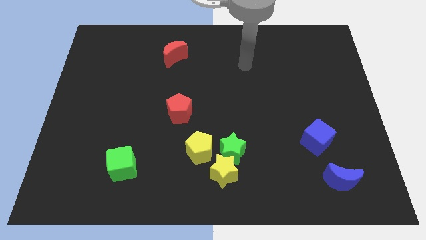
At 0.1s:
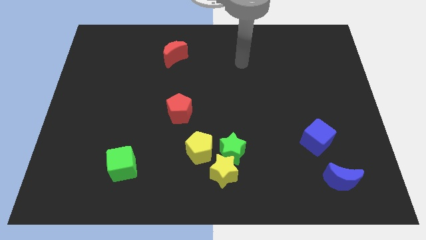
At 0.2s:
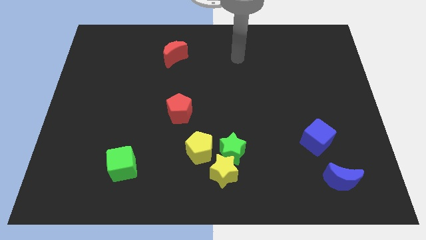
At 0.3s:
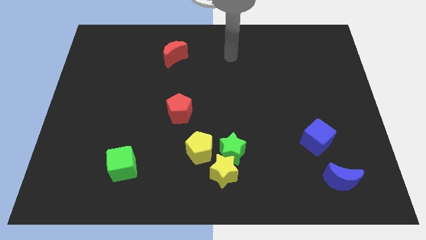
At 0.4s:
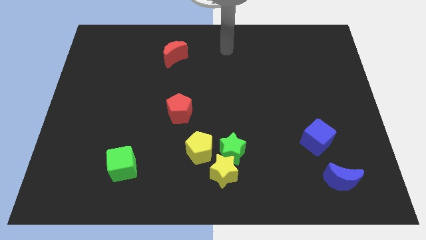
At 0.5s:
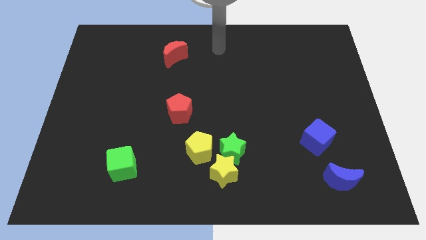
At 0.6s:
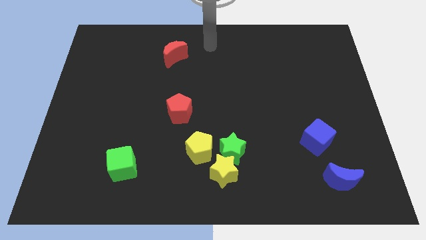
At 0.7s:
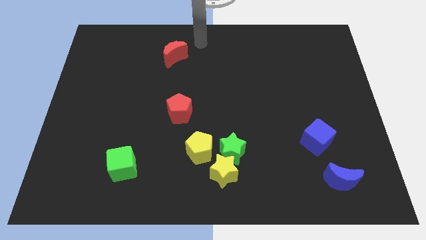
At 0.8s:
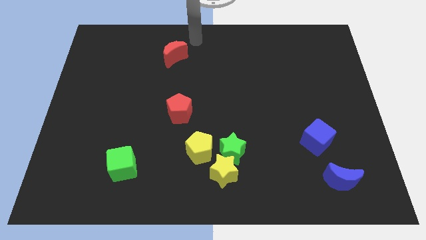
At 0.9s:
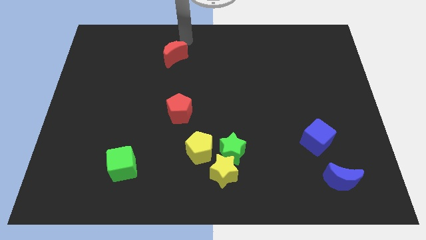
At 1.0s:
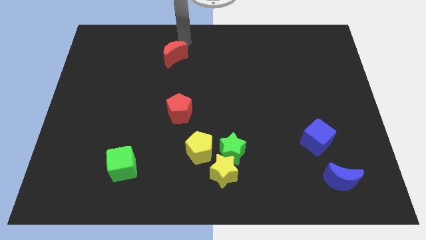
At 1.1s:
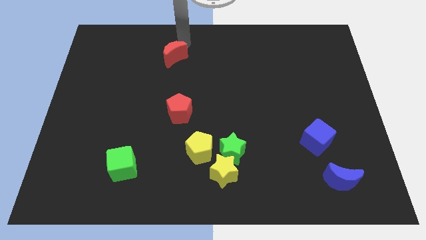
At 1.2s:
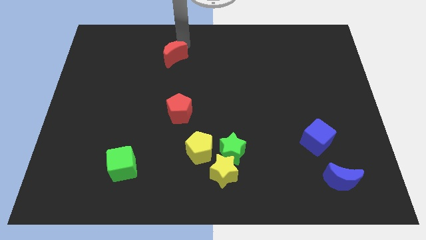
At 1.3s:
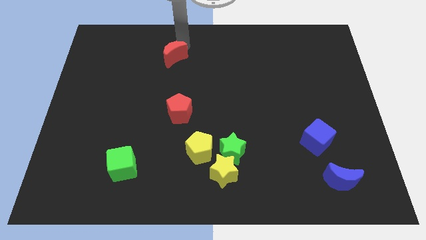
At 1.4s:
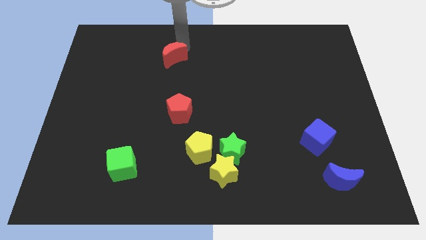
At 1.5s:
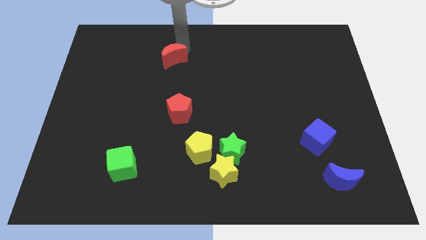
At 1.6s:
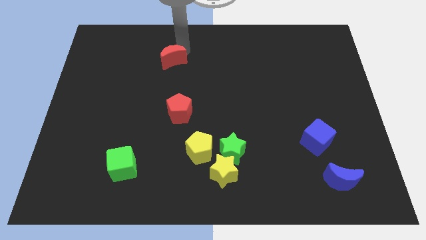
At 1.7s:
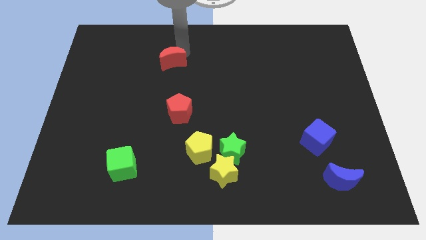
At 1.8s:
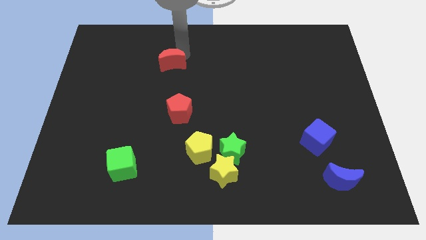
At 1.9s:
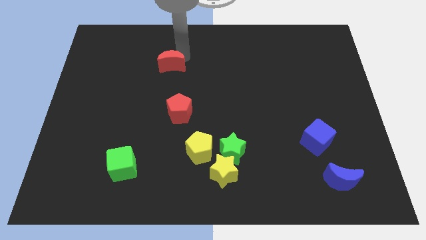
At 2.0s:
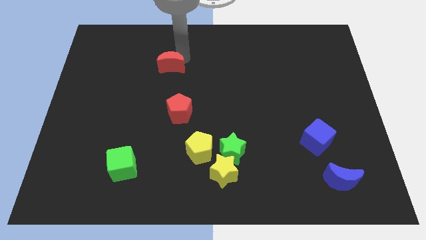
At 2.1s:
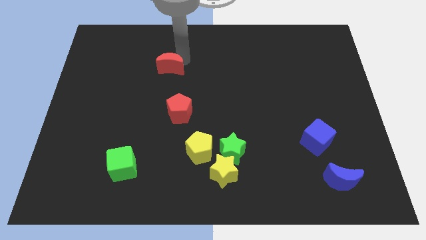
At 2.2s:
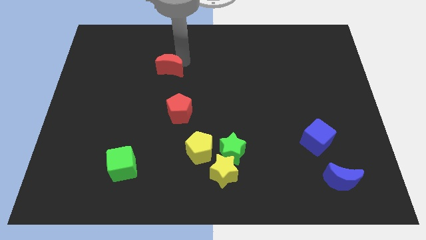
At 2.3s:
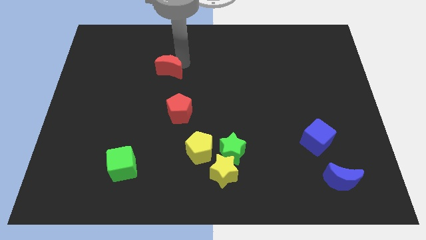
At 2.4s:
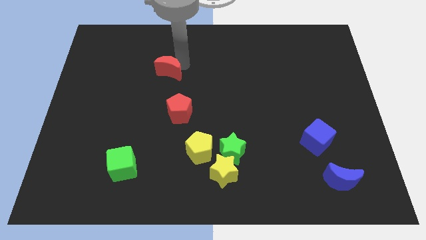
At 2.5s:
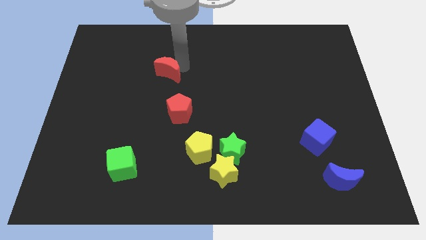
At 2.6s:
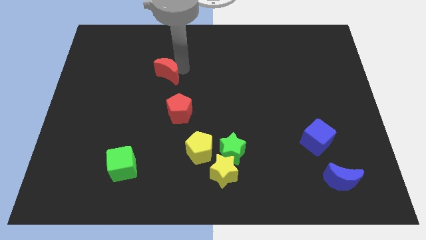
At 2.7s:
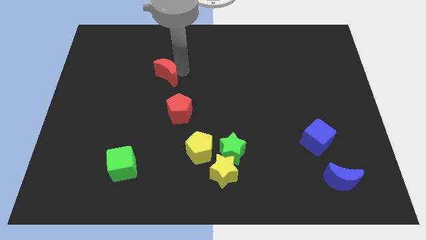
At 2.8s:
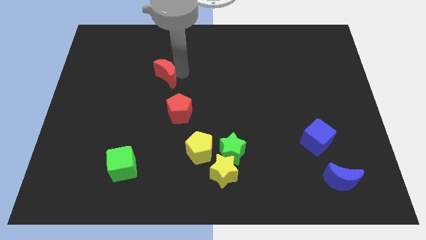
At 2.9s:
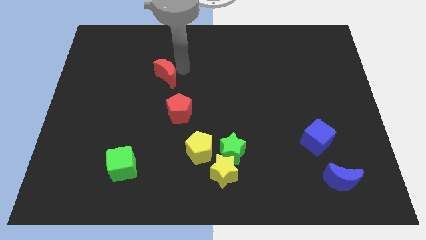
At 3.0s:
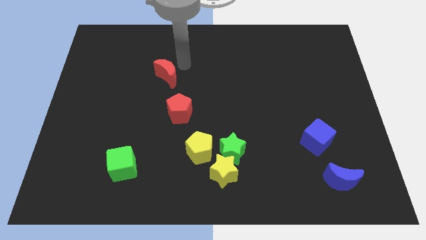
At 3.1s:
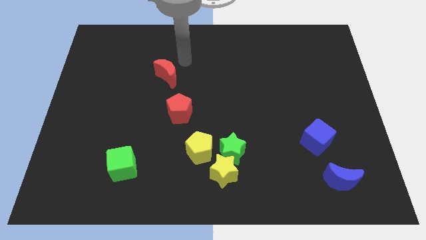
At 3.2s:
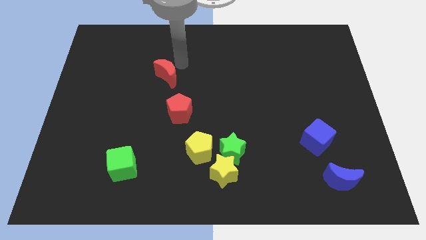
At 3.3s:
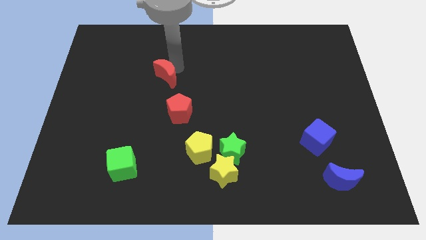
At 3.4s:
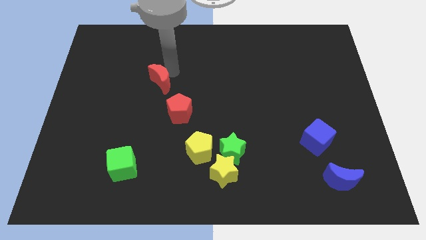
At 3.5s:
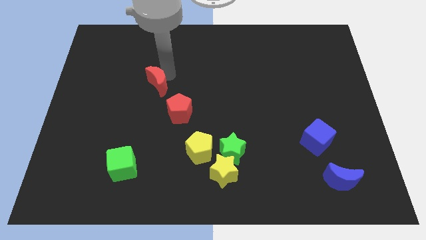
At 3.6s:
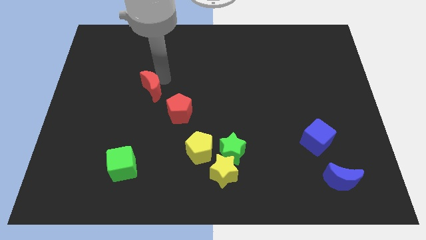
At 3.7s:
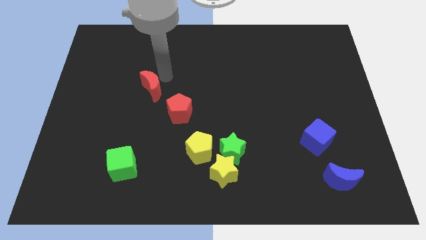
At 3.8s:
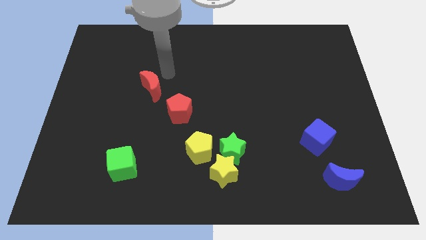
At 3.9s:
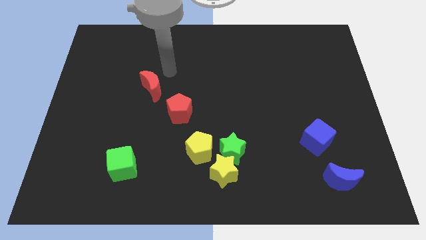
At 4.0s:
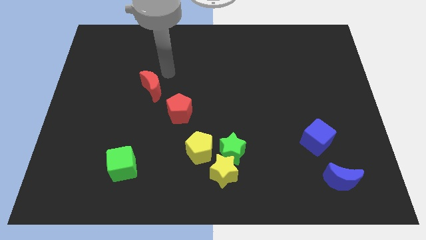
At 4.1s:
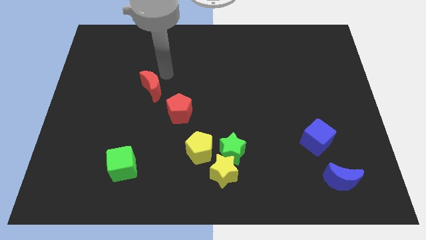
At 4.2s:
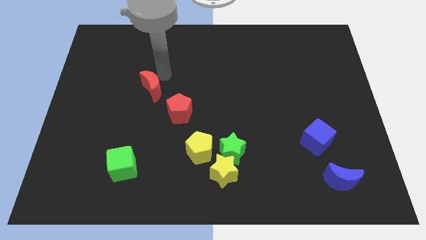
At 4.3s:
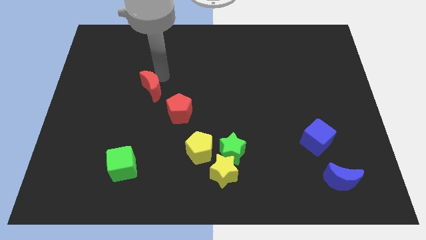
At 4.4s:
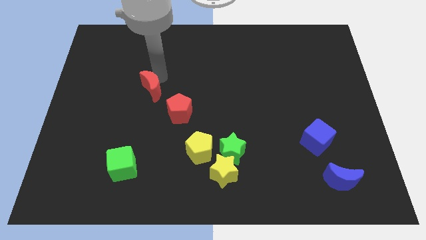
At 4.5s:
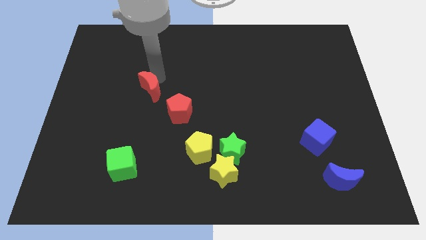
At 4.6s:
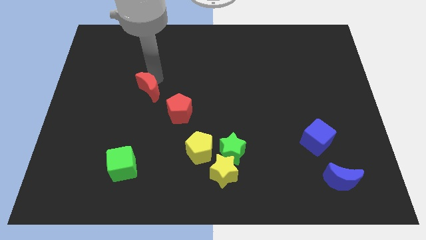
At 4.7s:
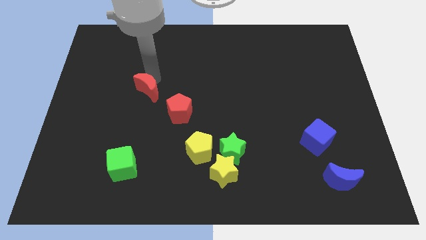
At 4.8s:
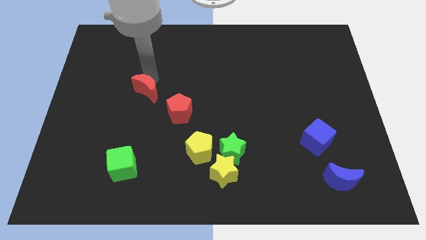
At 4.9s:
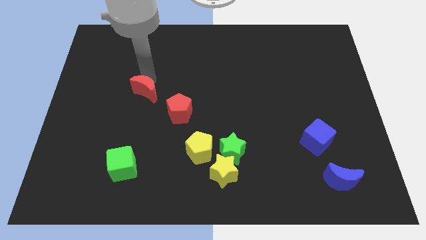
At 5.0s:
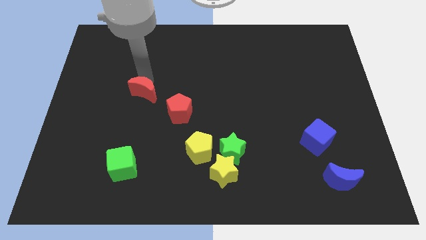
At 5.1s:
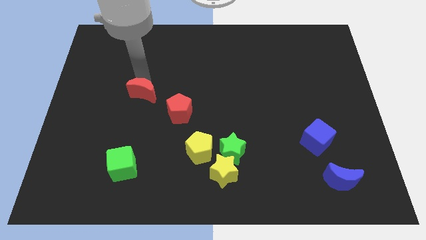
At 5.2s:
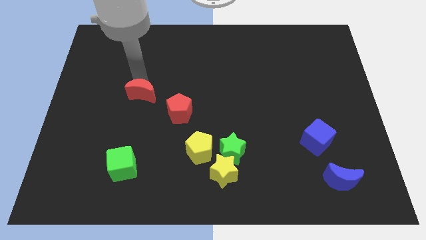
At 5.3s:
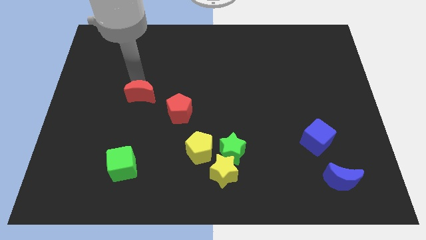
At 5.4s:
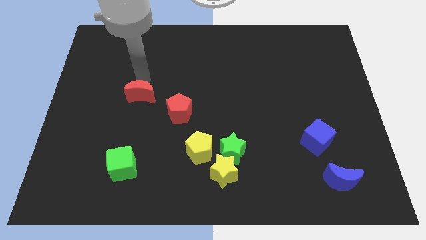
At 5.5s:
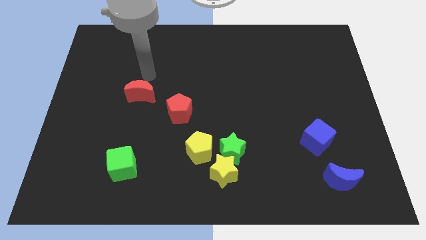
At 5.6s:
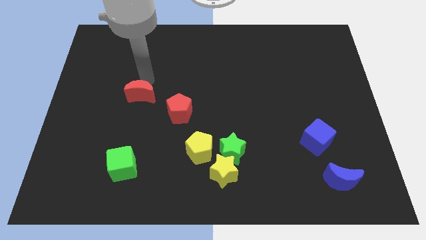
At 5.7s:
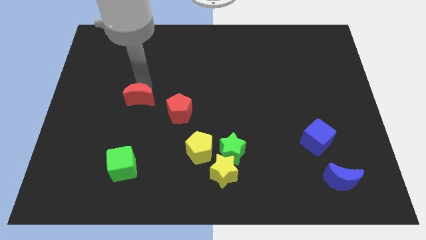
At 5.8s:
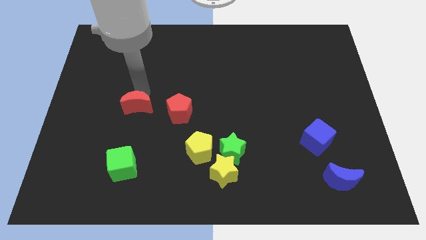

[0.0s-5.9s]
slide the red moon to the top side of the green cube

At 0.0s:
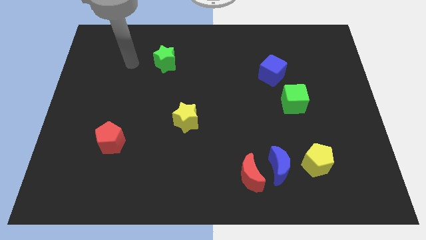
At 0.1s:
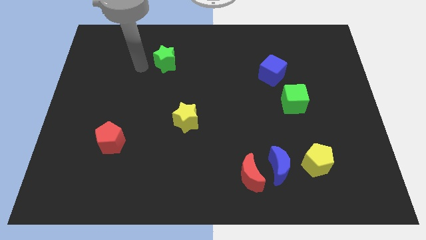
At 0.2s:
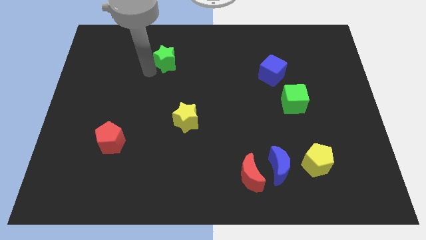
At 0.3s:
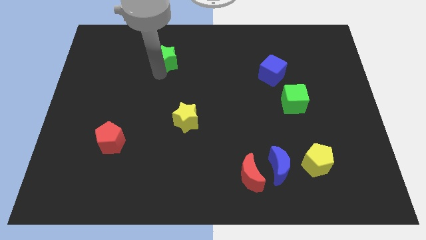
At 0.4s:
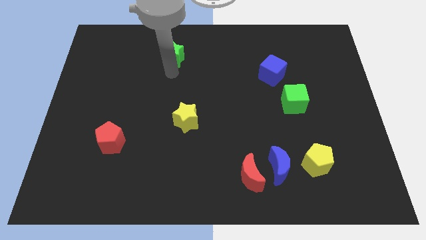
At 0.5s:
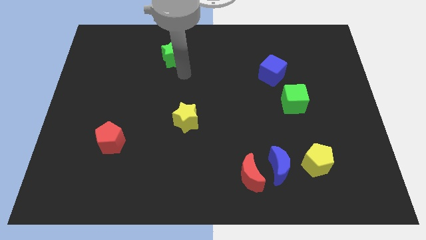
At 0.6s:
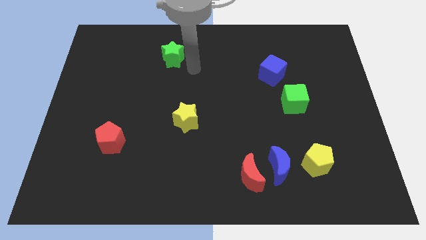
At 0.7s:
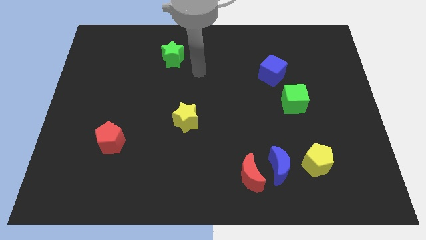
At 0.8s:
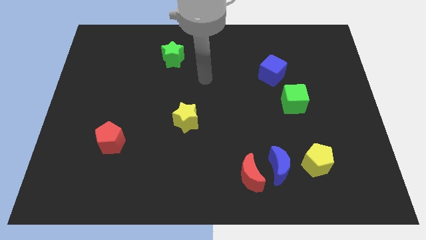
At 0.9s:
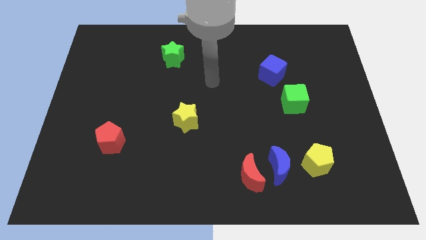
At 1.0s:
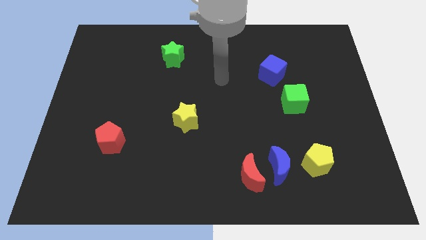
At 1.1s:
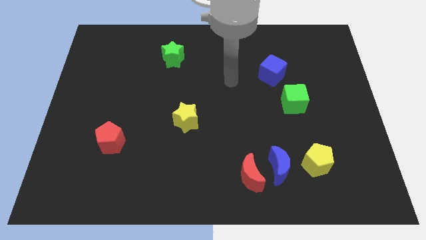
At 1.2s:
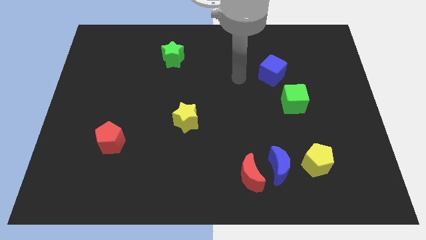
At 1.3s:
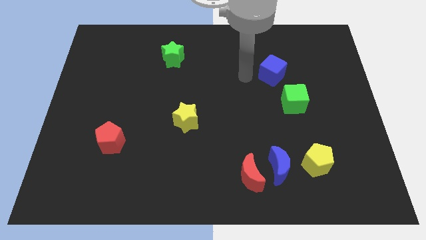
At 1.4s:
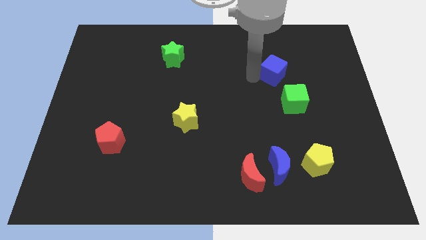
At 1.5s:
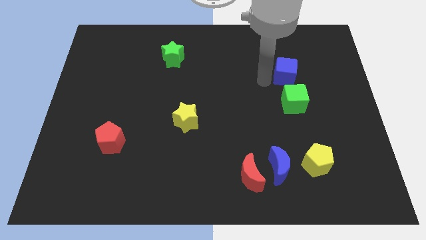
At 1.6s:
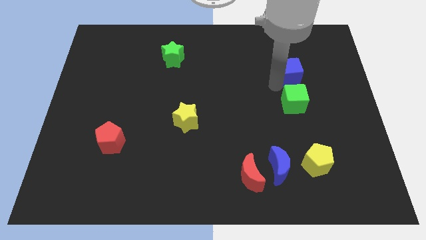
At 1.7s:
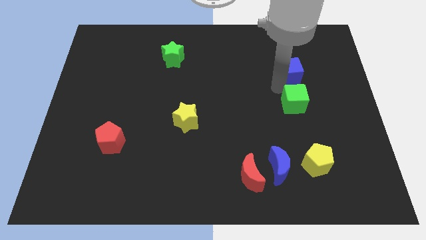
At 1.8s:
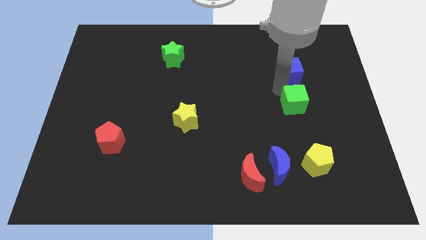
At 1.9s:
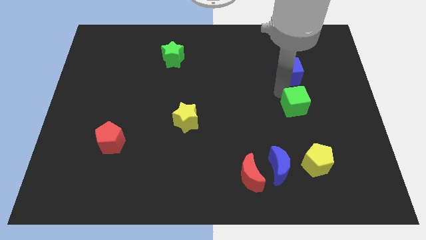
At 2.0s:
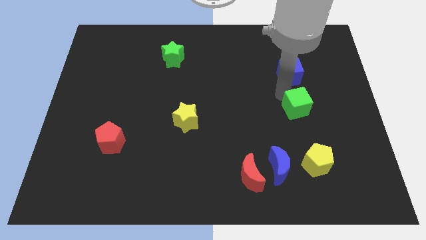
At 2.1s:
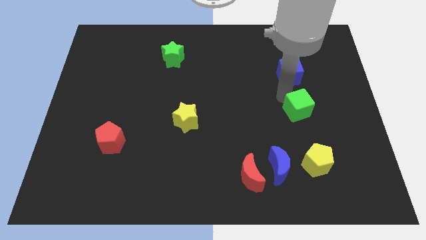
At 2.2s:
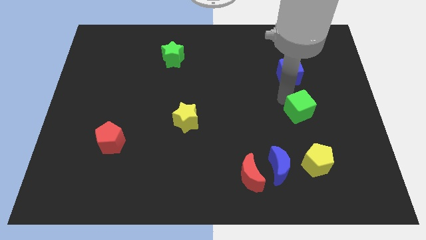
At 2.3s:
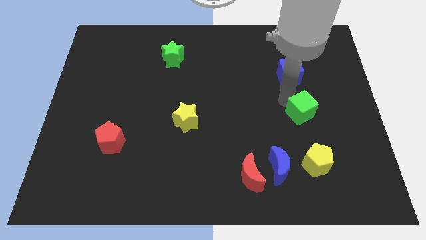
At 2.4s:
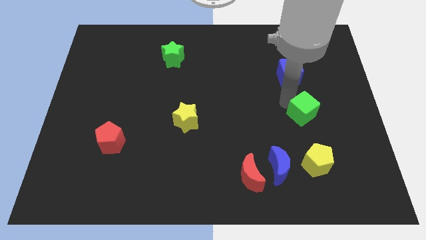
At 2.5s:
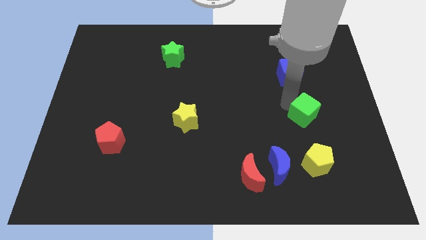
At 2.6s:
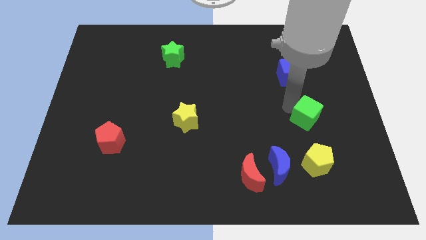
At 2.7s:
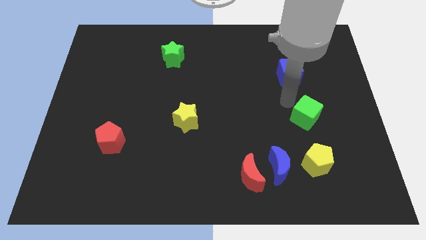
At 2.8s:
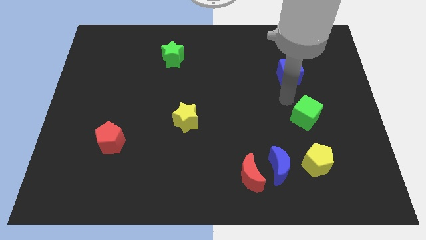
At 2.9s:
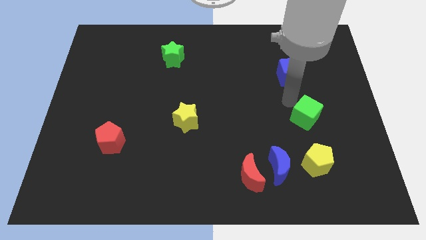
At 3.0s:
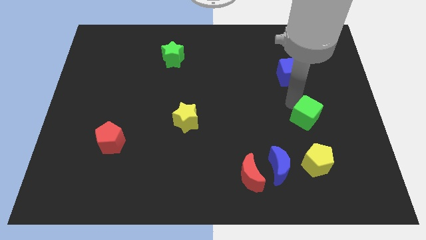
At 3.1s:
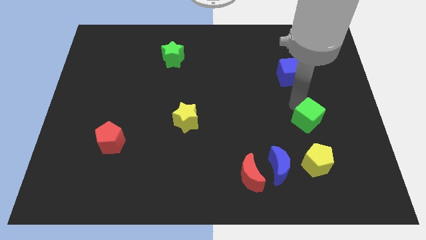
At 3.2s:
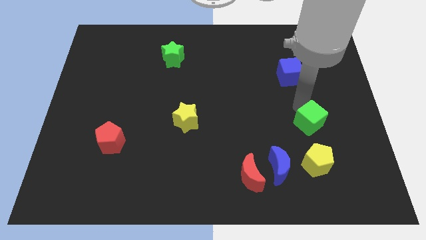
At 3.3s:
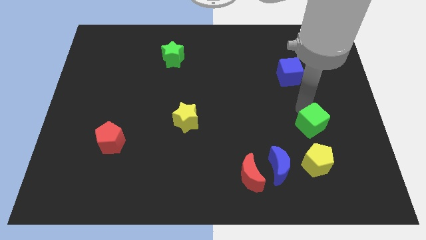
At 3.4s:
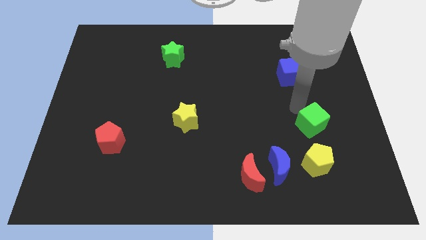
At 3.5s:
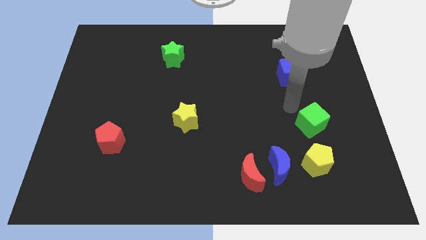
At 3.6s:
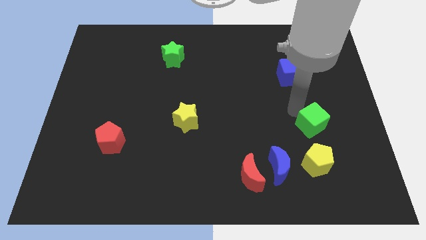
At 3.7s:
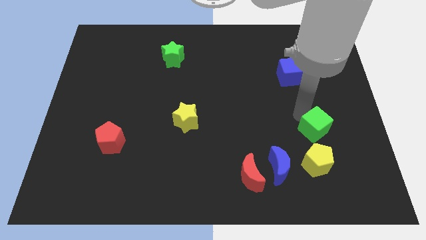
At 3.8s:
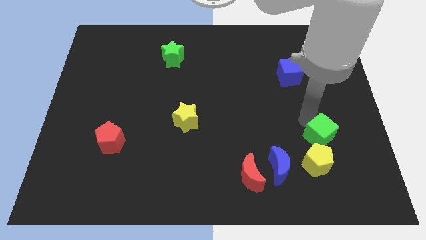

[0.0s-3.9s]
move the green cube diagonally up and to the right of the yellow pentagon
